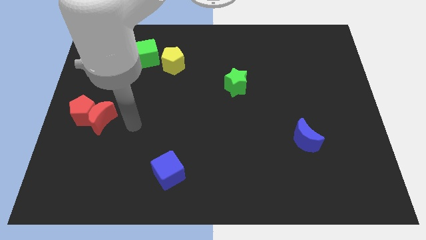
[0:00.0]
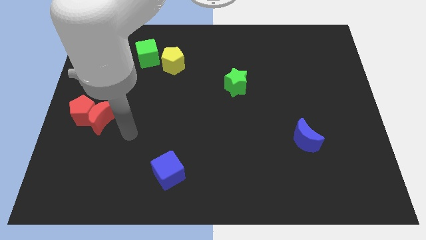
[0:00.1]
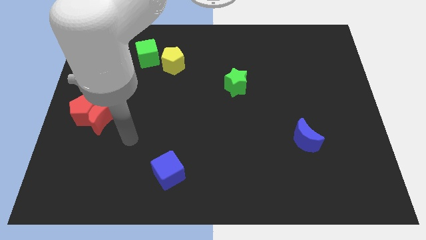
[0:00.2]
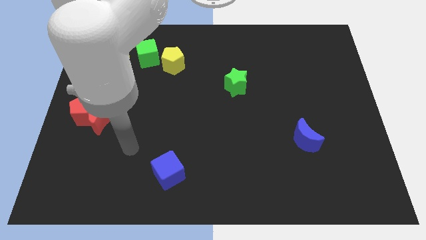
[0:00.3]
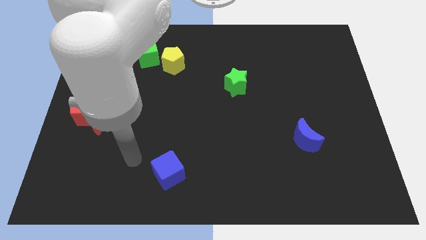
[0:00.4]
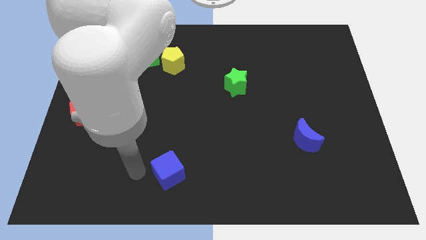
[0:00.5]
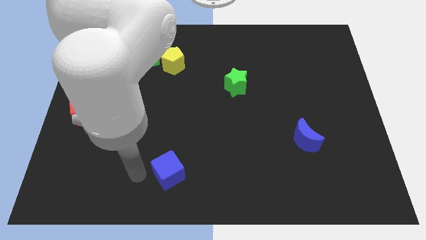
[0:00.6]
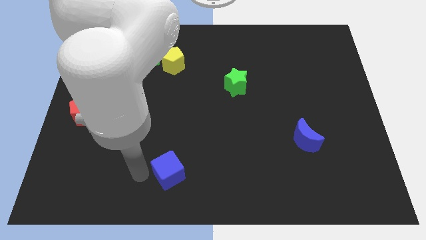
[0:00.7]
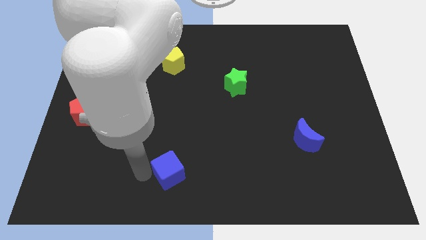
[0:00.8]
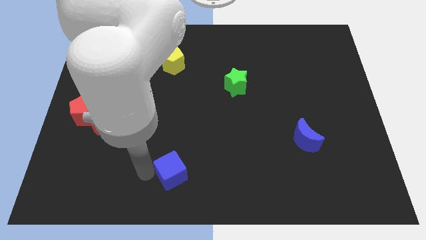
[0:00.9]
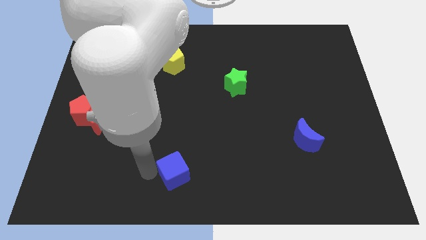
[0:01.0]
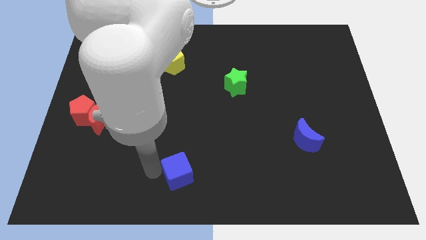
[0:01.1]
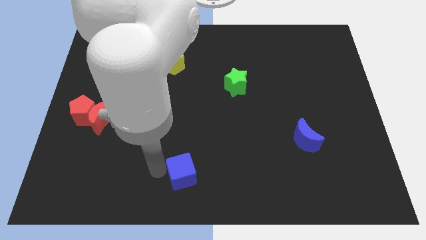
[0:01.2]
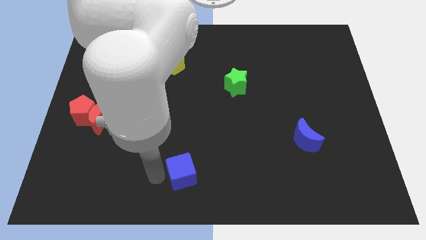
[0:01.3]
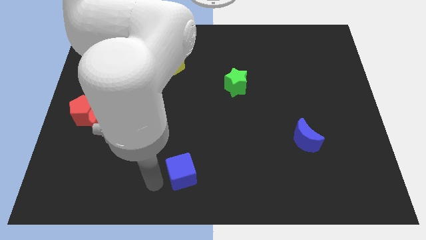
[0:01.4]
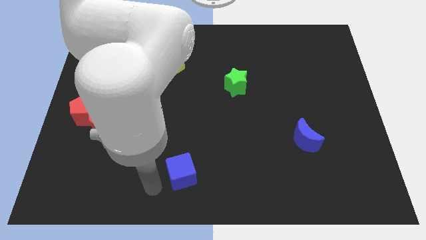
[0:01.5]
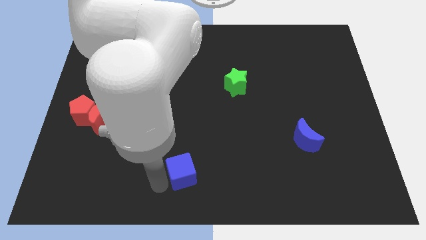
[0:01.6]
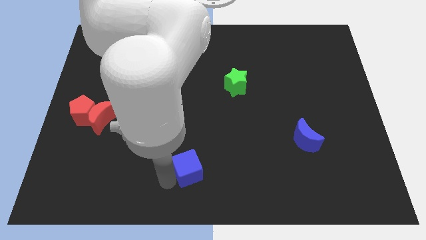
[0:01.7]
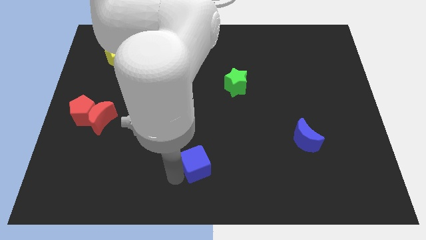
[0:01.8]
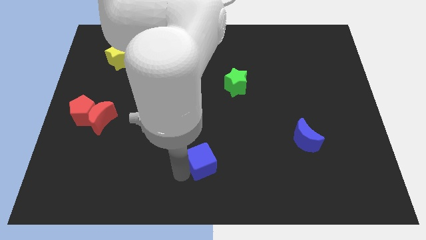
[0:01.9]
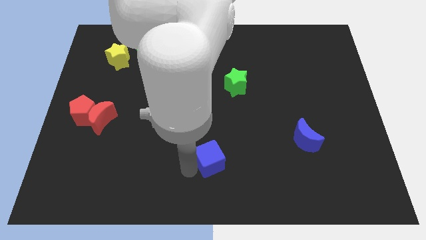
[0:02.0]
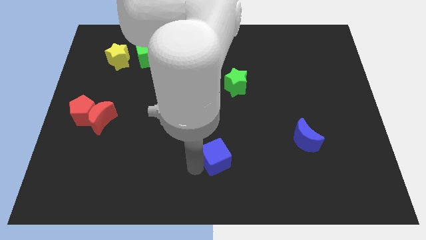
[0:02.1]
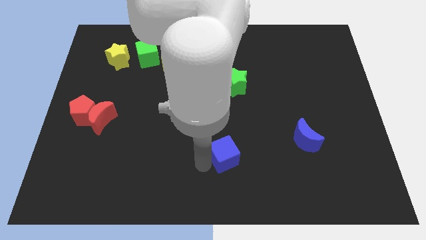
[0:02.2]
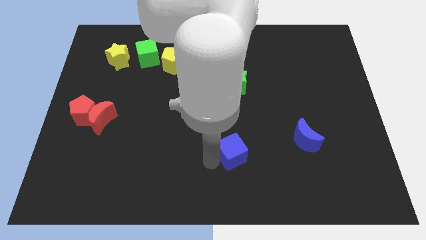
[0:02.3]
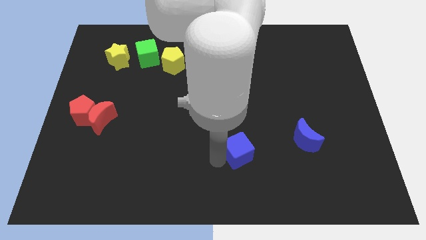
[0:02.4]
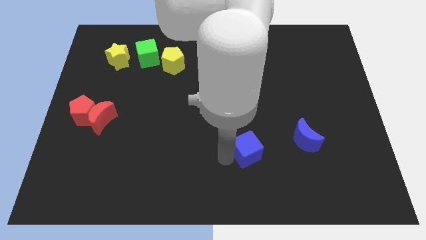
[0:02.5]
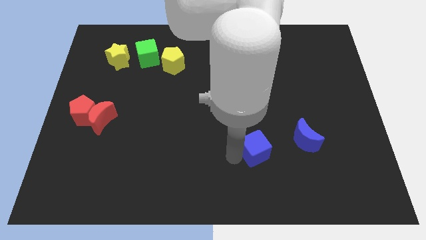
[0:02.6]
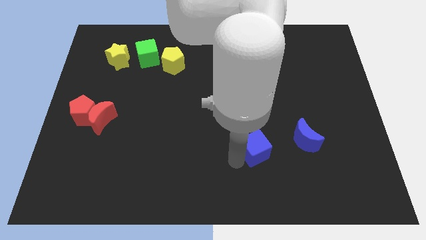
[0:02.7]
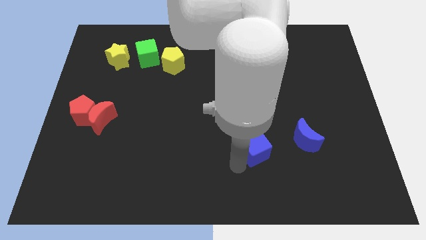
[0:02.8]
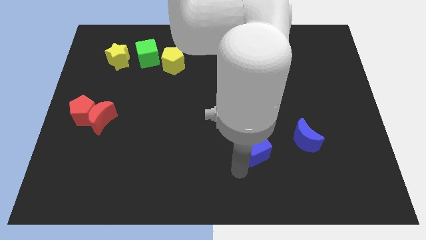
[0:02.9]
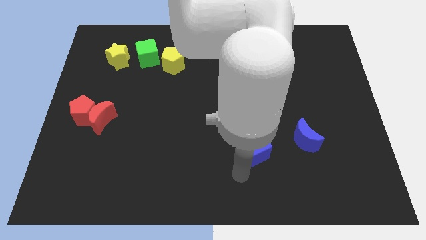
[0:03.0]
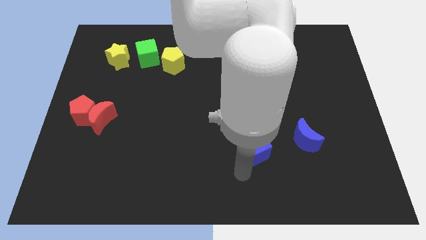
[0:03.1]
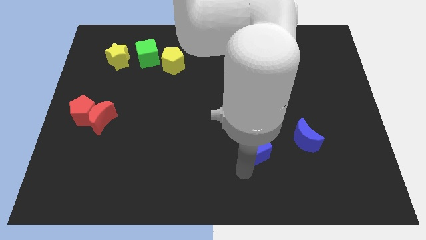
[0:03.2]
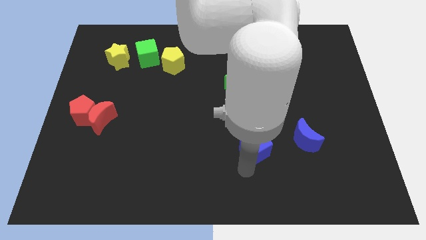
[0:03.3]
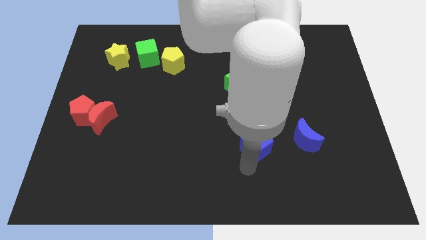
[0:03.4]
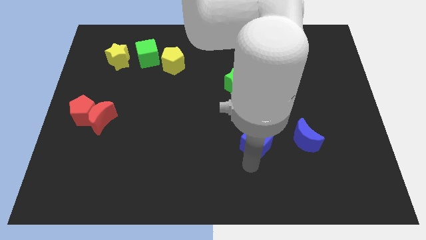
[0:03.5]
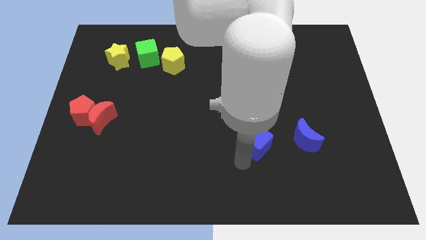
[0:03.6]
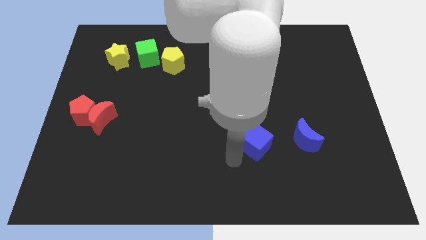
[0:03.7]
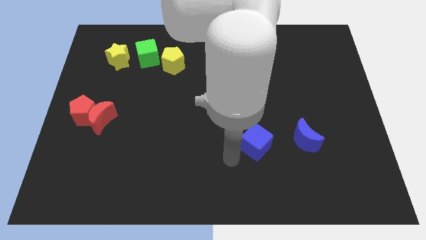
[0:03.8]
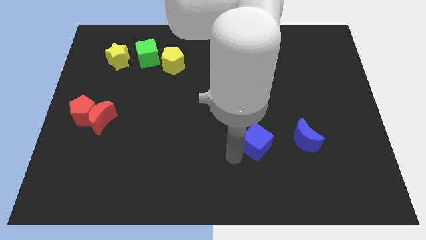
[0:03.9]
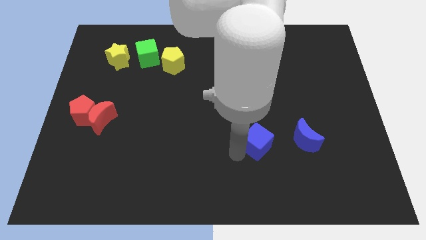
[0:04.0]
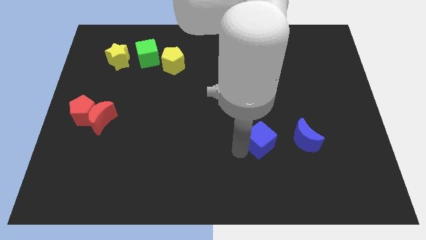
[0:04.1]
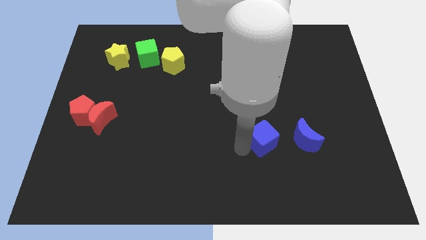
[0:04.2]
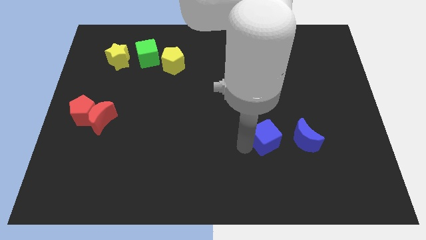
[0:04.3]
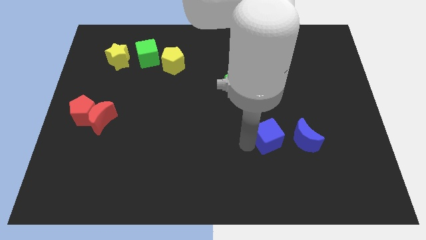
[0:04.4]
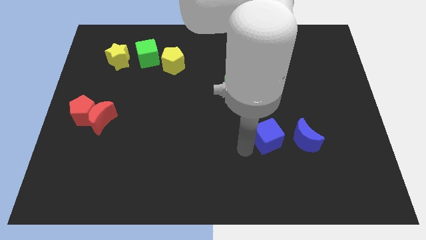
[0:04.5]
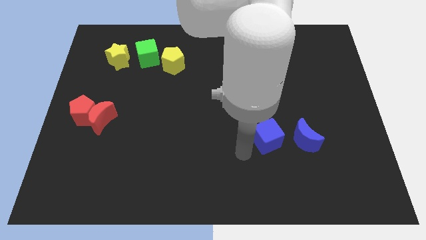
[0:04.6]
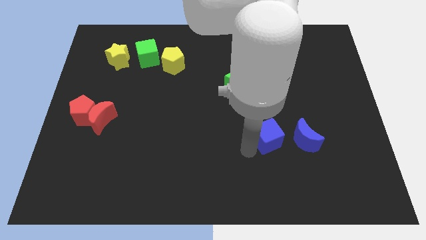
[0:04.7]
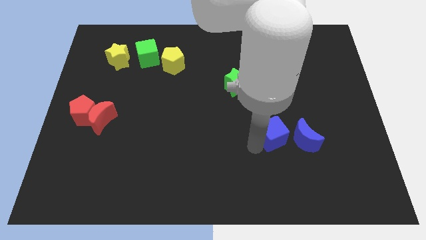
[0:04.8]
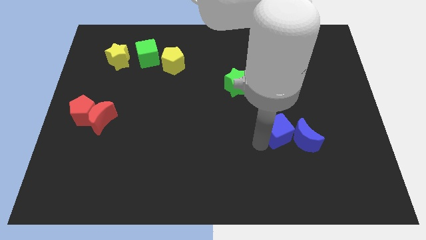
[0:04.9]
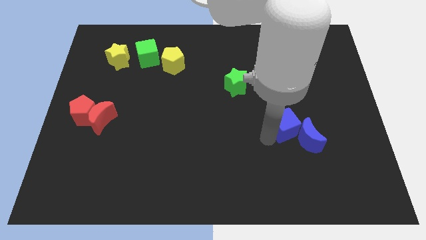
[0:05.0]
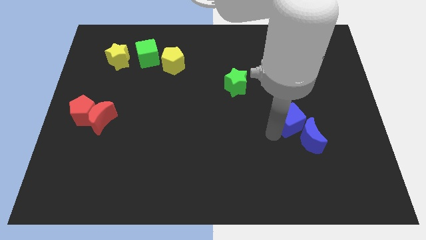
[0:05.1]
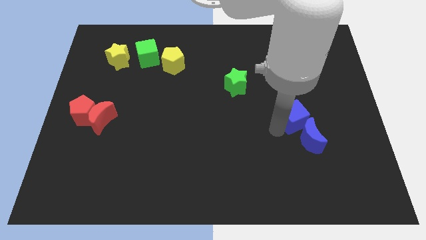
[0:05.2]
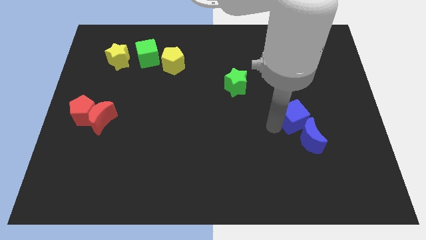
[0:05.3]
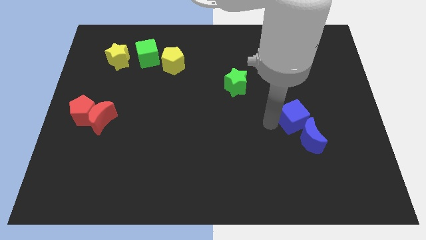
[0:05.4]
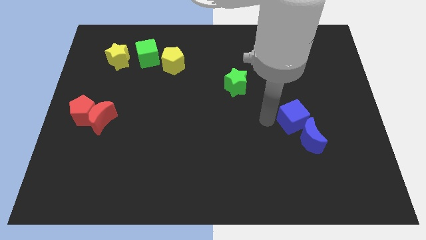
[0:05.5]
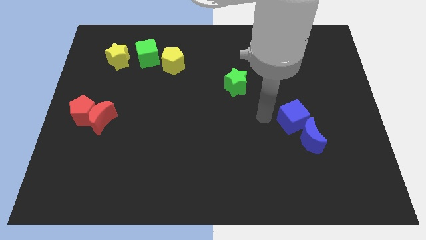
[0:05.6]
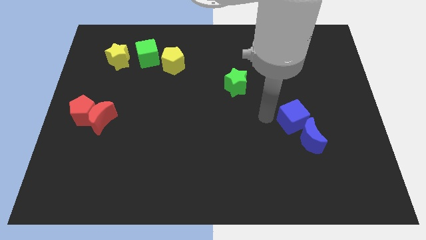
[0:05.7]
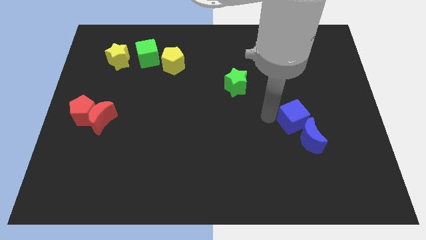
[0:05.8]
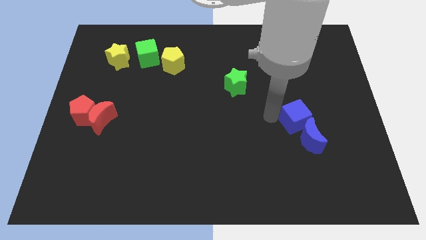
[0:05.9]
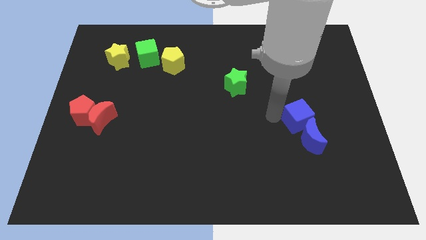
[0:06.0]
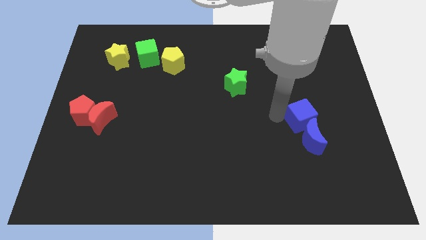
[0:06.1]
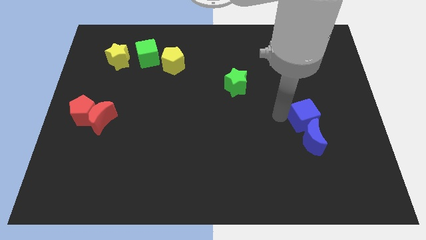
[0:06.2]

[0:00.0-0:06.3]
move the blue cube diagonally up and to the right of the blue moon

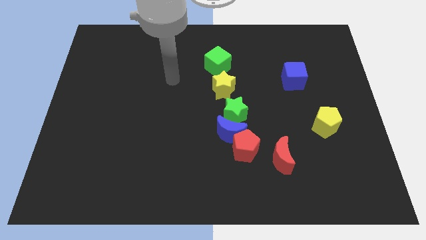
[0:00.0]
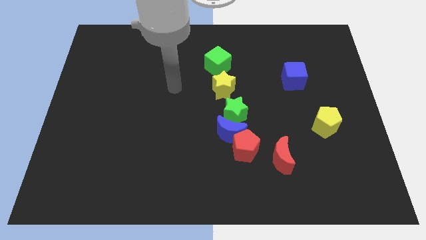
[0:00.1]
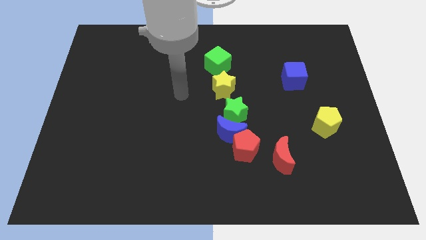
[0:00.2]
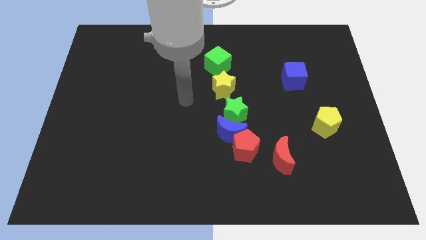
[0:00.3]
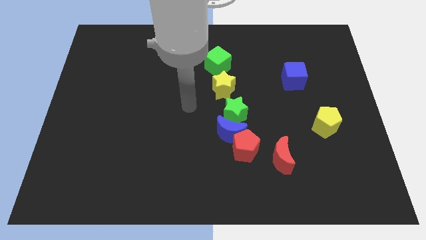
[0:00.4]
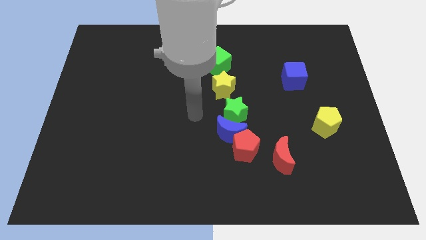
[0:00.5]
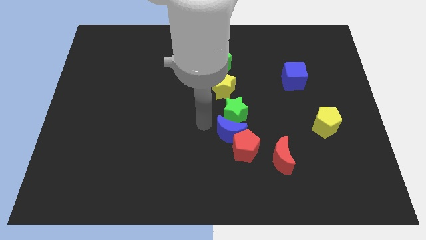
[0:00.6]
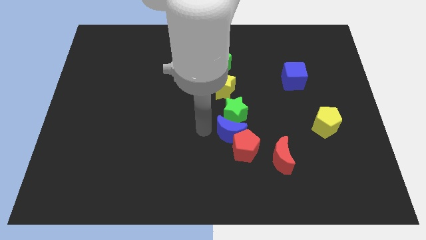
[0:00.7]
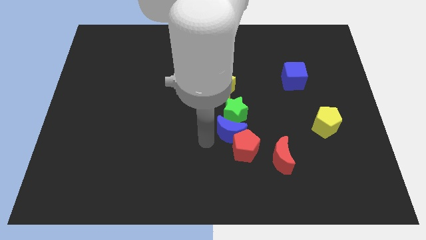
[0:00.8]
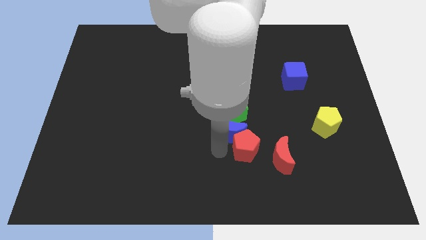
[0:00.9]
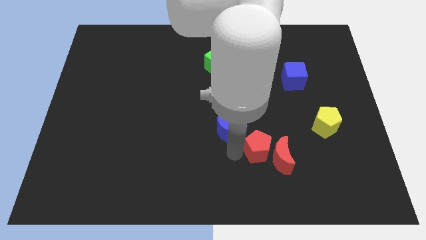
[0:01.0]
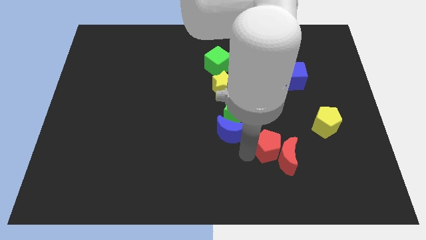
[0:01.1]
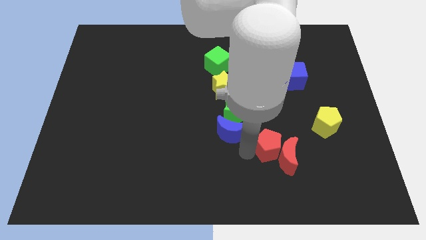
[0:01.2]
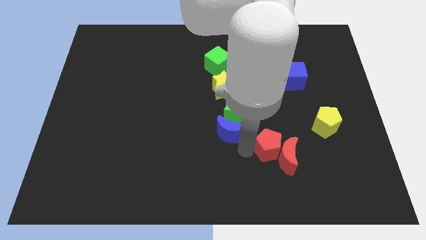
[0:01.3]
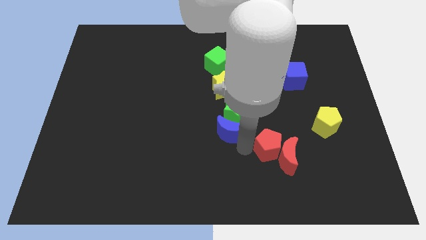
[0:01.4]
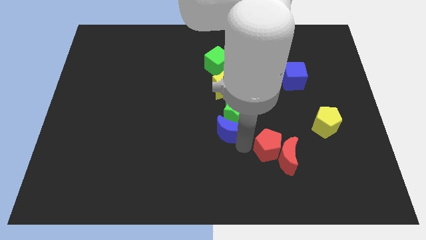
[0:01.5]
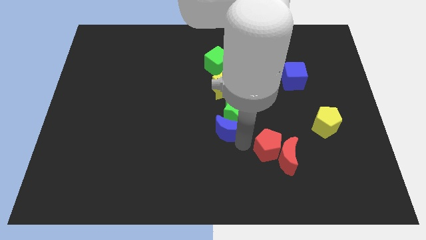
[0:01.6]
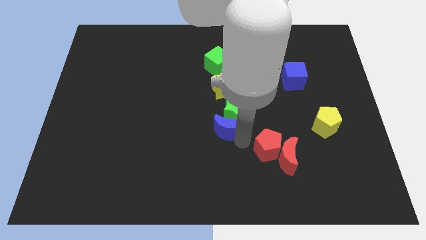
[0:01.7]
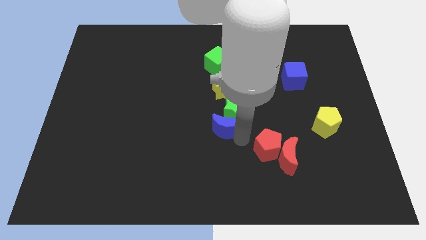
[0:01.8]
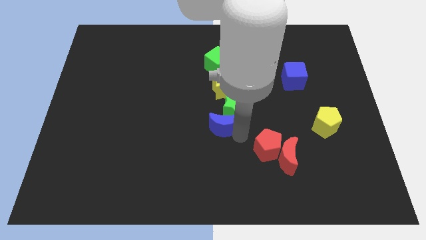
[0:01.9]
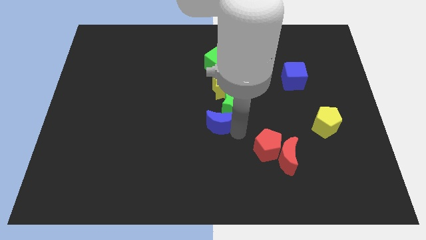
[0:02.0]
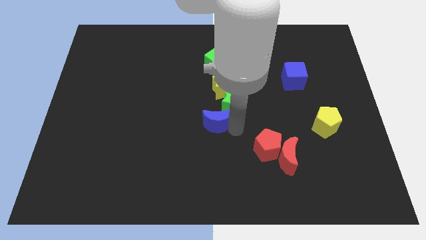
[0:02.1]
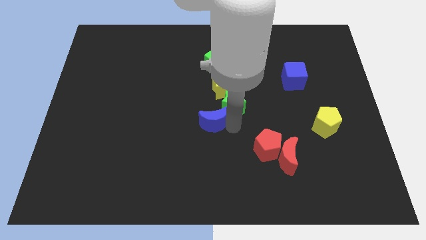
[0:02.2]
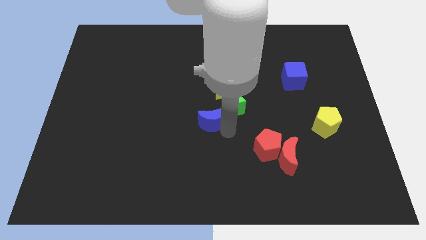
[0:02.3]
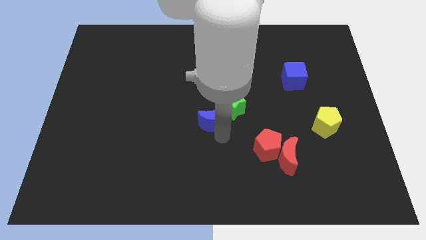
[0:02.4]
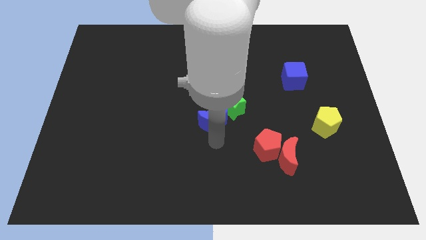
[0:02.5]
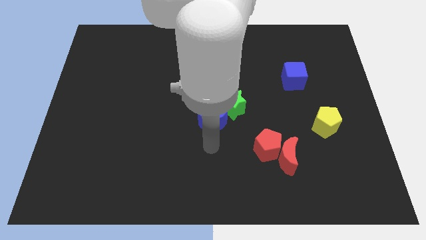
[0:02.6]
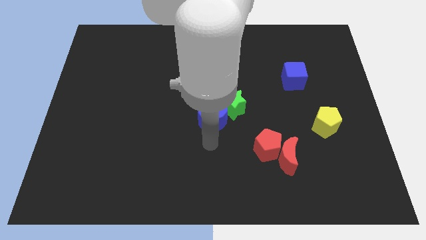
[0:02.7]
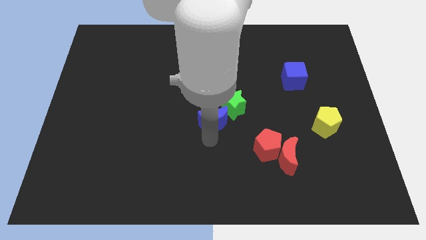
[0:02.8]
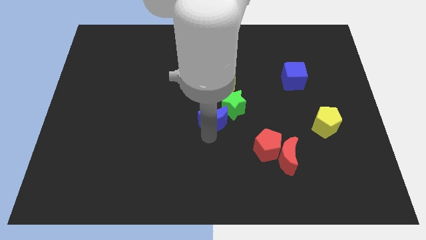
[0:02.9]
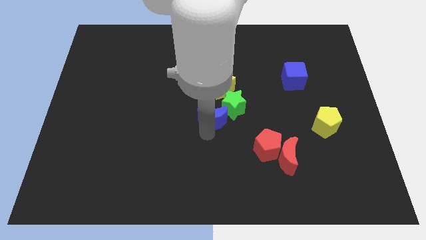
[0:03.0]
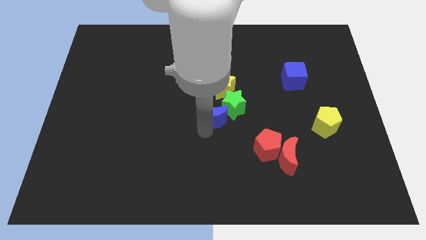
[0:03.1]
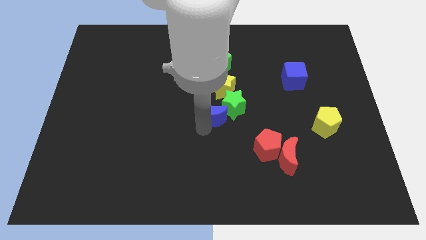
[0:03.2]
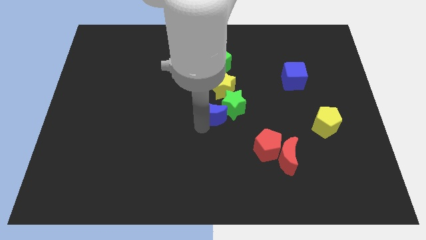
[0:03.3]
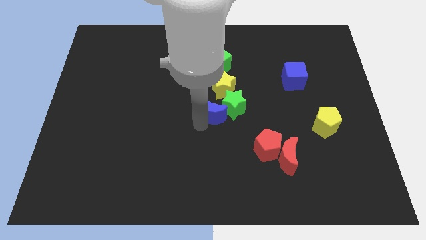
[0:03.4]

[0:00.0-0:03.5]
move the blue moon to the bottom side of the green cube
